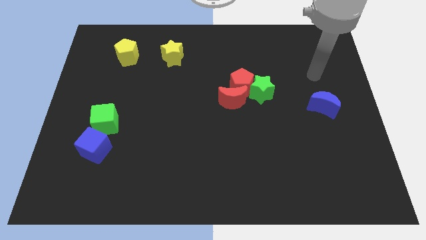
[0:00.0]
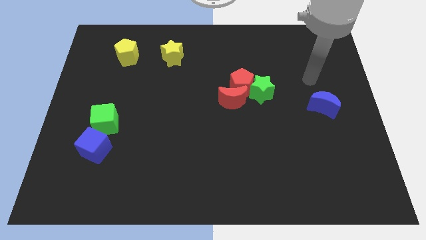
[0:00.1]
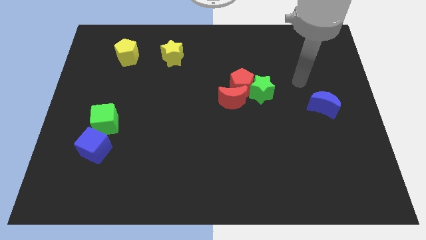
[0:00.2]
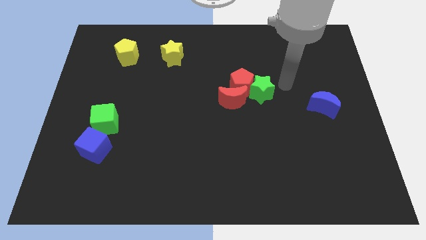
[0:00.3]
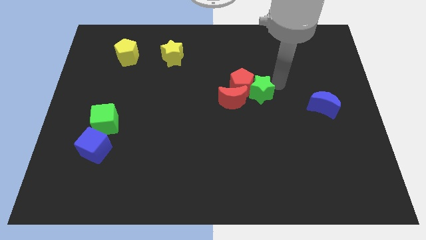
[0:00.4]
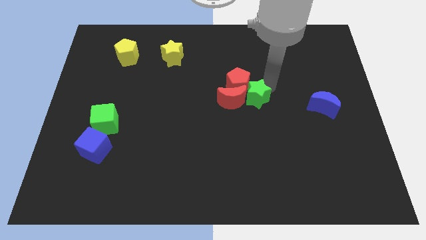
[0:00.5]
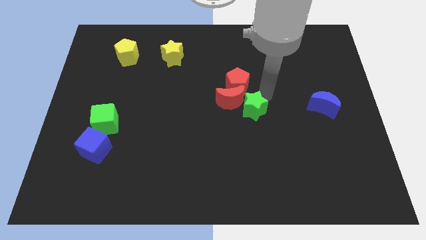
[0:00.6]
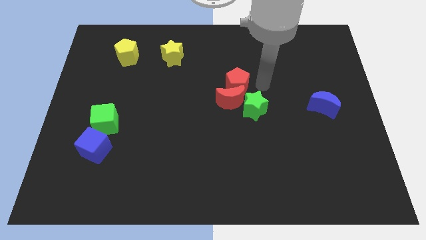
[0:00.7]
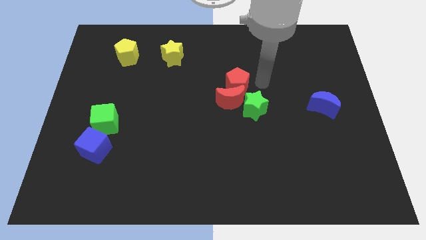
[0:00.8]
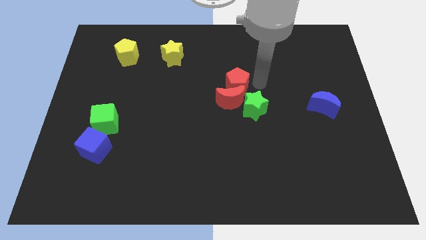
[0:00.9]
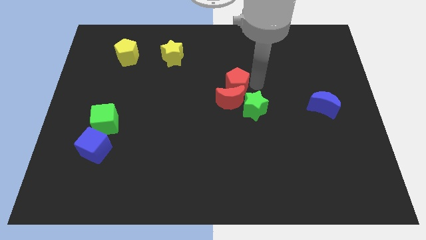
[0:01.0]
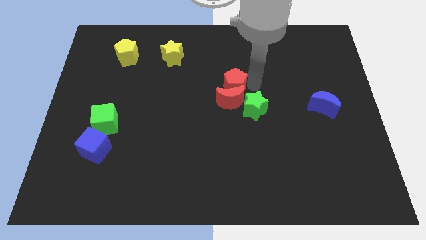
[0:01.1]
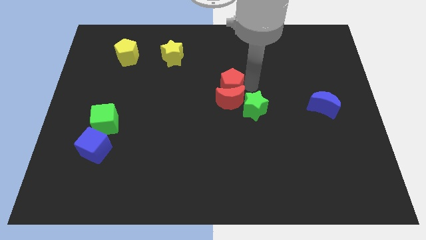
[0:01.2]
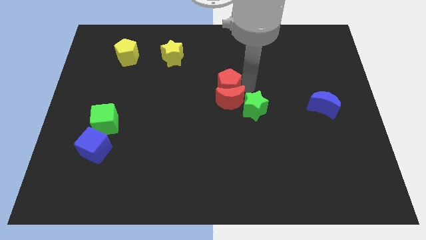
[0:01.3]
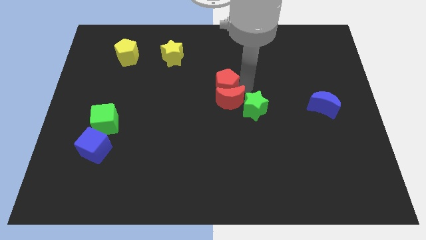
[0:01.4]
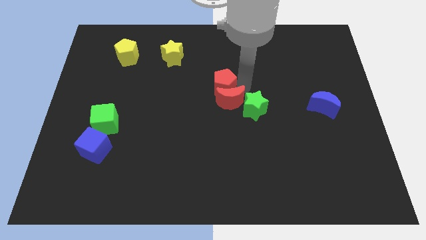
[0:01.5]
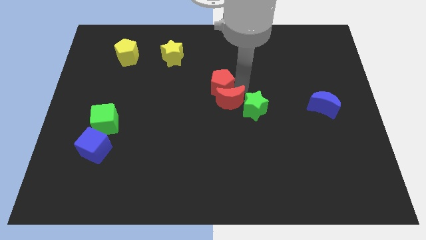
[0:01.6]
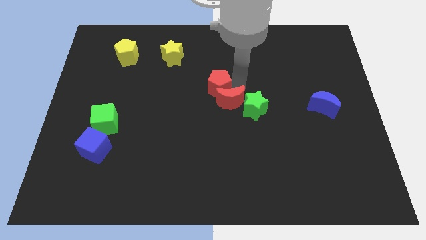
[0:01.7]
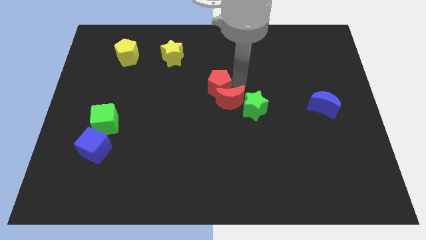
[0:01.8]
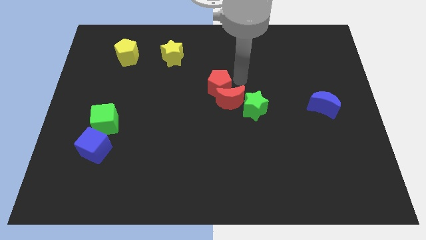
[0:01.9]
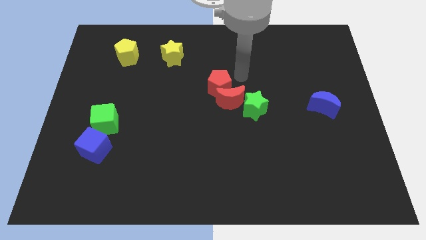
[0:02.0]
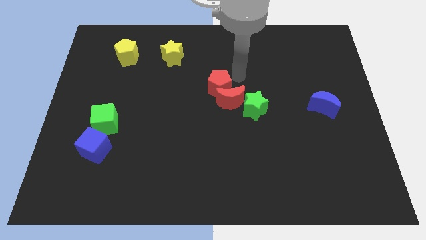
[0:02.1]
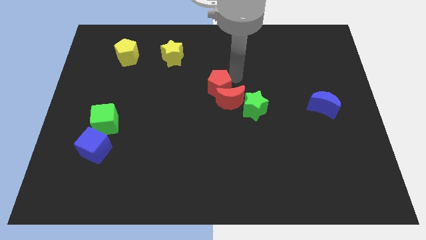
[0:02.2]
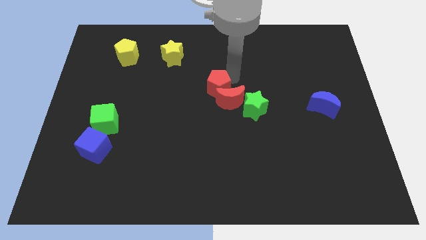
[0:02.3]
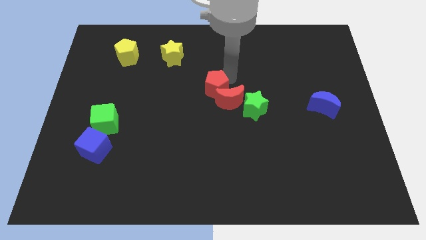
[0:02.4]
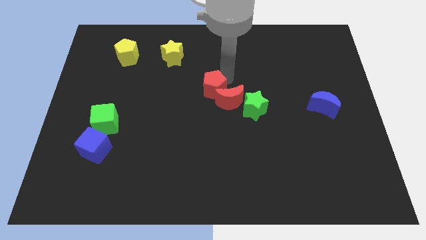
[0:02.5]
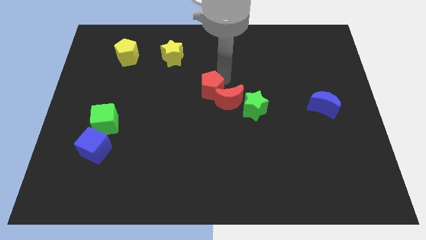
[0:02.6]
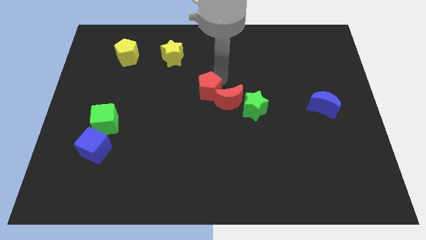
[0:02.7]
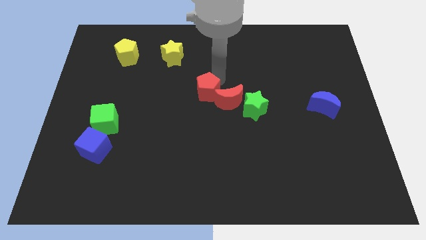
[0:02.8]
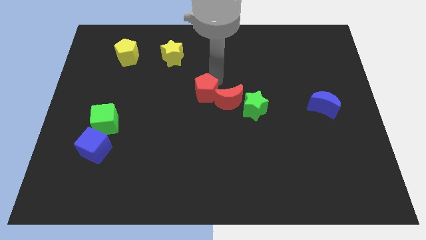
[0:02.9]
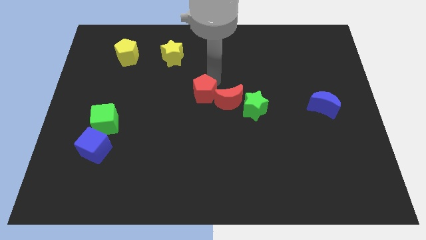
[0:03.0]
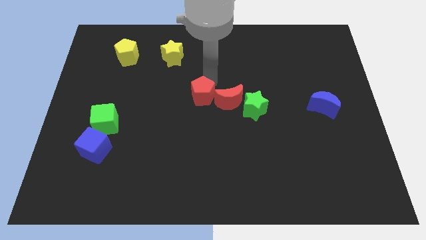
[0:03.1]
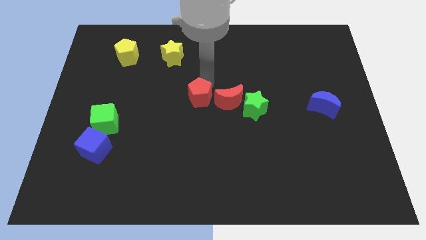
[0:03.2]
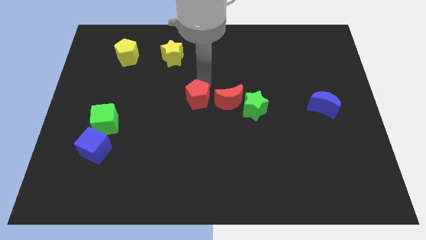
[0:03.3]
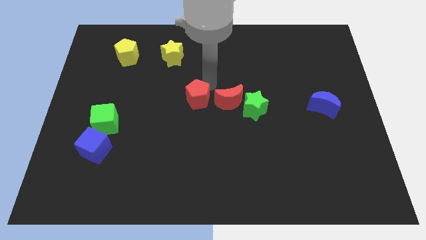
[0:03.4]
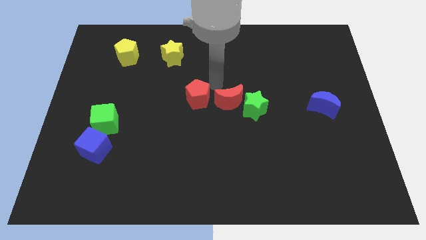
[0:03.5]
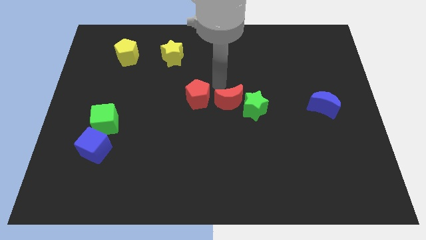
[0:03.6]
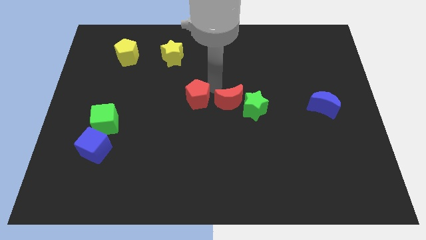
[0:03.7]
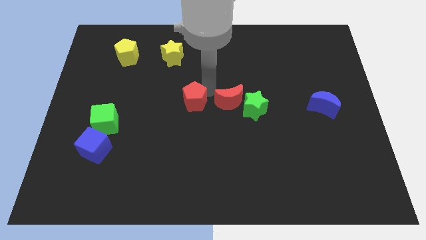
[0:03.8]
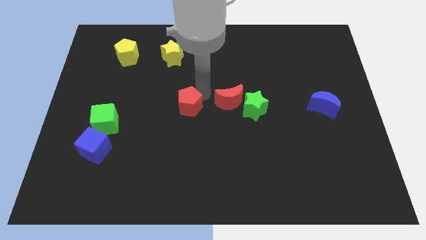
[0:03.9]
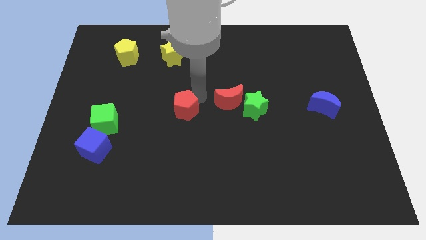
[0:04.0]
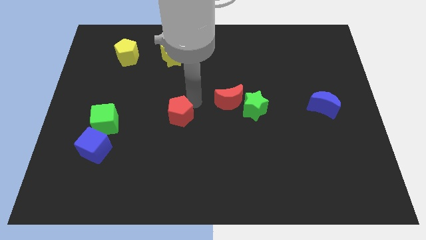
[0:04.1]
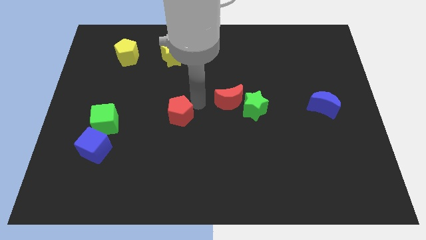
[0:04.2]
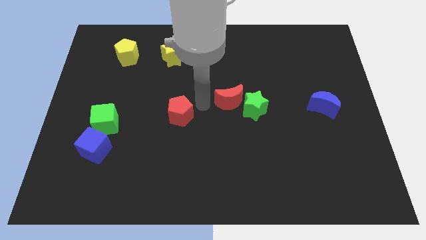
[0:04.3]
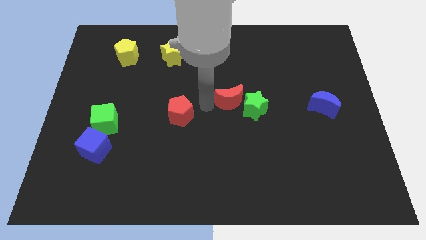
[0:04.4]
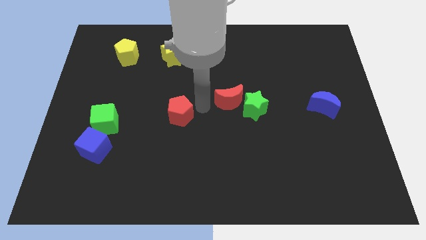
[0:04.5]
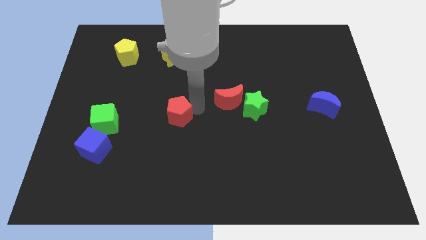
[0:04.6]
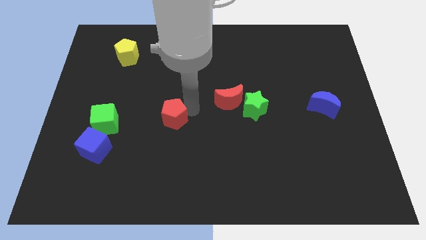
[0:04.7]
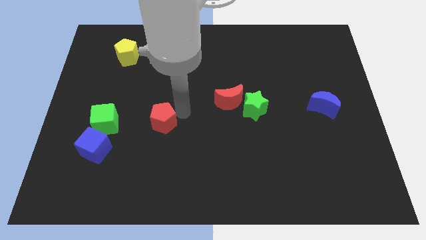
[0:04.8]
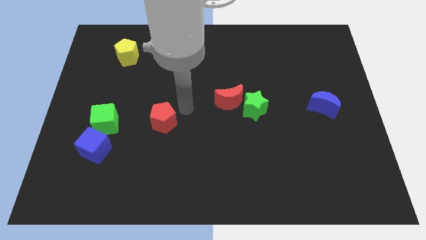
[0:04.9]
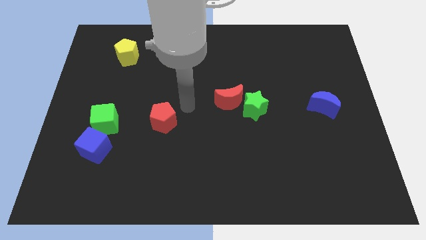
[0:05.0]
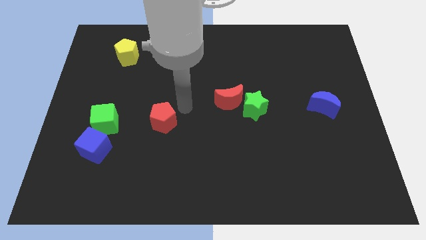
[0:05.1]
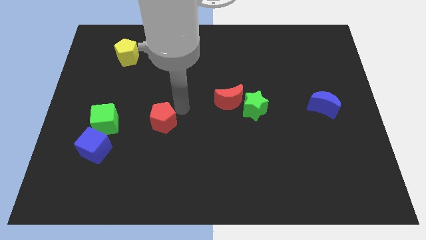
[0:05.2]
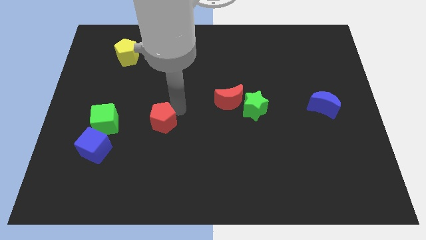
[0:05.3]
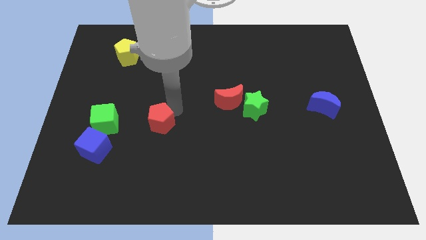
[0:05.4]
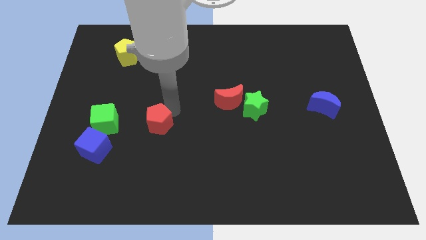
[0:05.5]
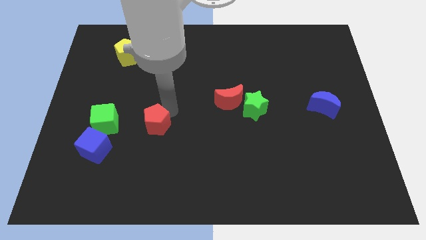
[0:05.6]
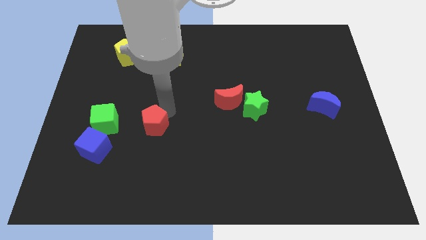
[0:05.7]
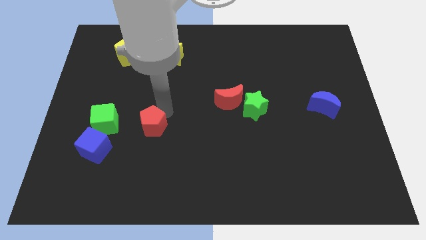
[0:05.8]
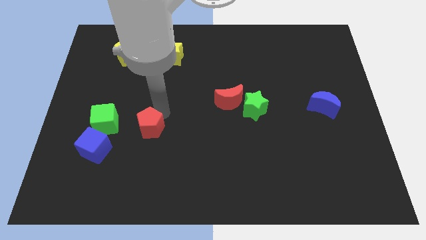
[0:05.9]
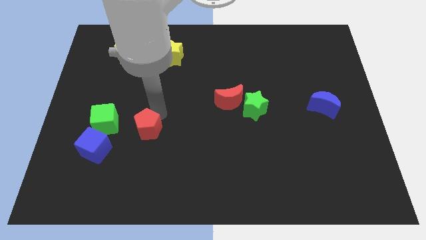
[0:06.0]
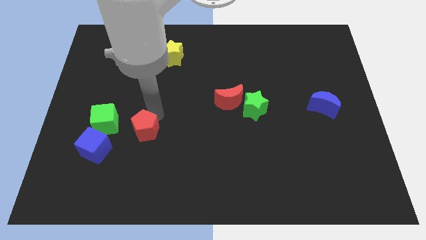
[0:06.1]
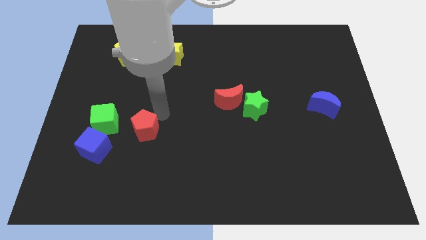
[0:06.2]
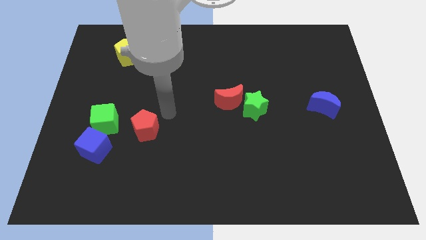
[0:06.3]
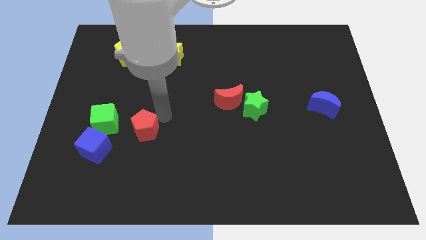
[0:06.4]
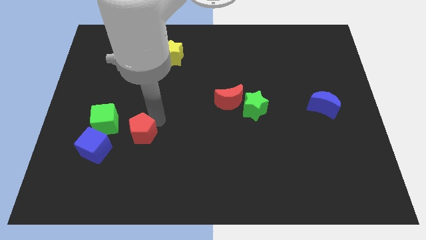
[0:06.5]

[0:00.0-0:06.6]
push the red pentagon to the bottom right of the green cube

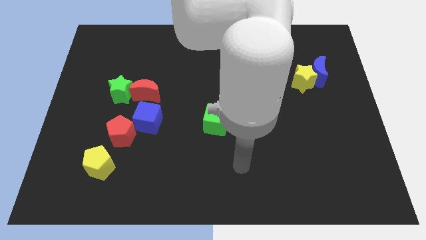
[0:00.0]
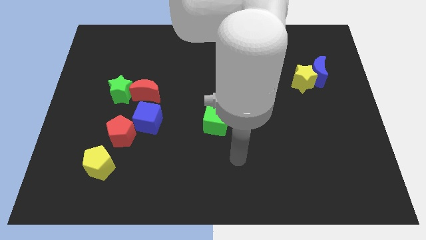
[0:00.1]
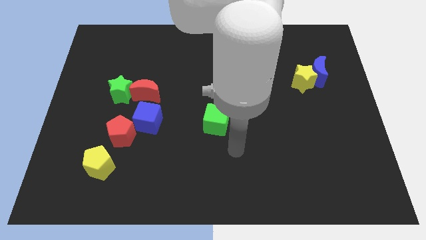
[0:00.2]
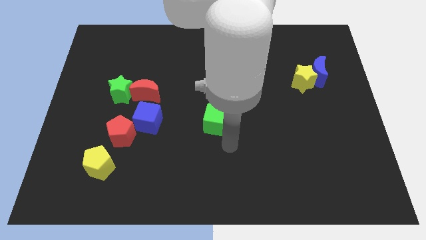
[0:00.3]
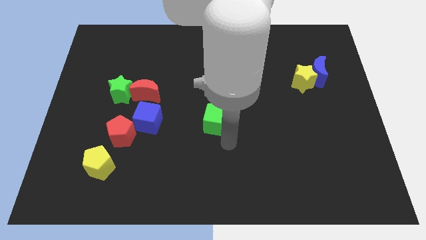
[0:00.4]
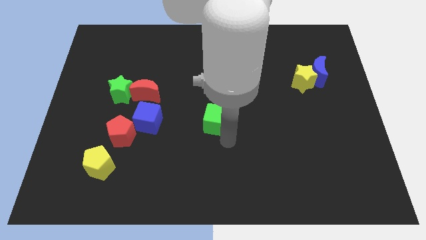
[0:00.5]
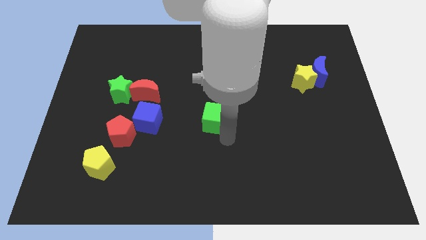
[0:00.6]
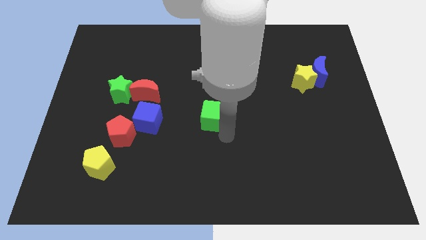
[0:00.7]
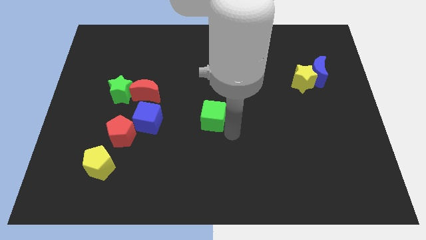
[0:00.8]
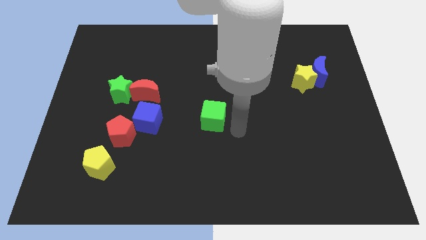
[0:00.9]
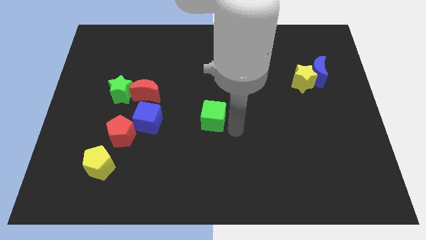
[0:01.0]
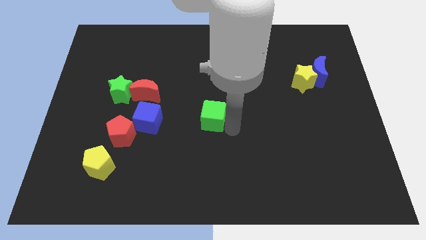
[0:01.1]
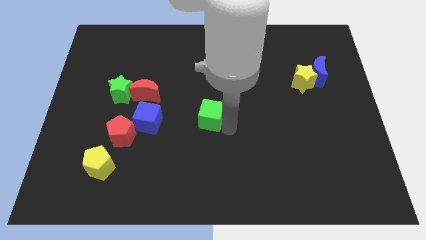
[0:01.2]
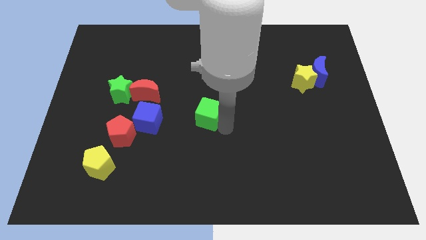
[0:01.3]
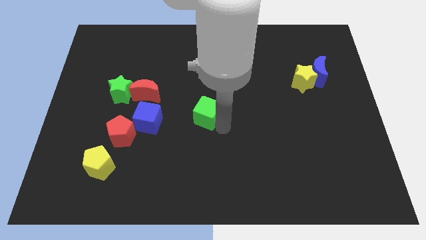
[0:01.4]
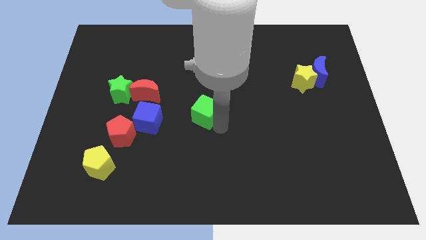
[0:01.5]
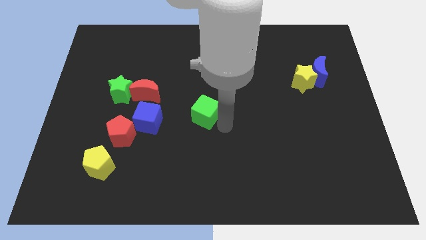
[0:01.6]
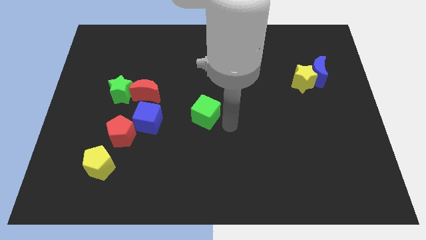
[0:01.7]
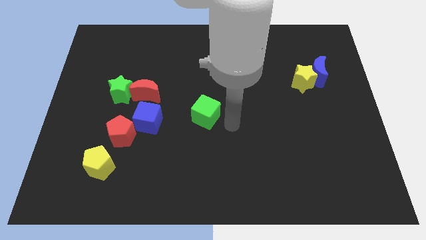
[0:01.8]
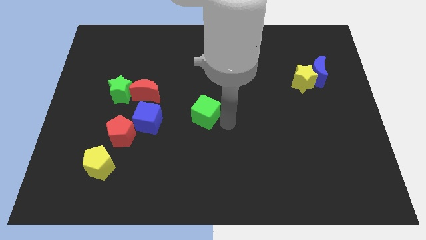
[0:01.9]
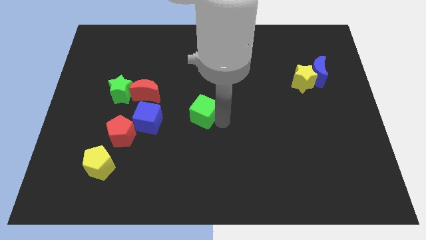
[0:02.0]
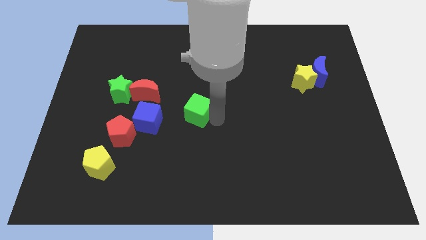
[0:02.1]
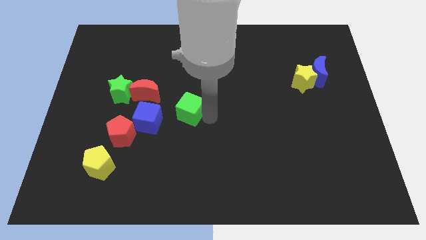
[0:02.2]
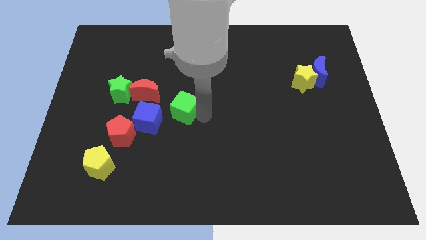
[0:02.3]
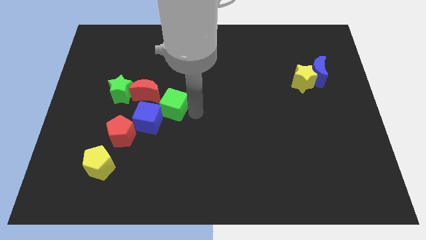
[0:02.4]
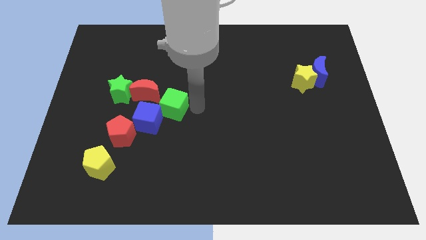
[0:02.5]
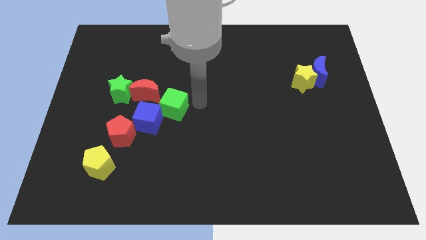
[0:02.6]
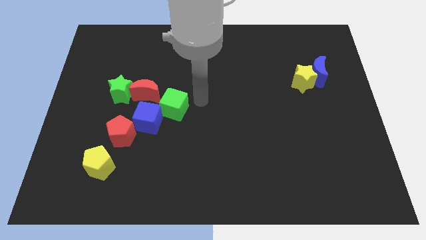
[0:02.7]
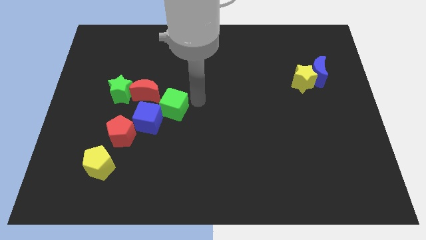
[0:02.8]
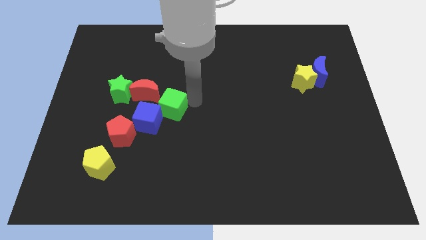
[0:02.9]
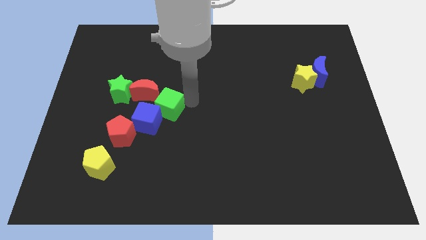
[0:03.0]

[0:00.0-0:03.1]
put the green cube diagonally up and to the right of the red pentagon
